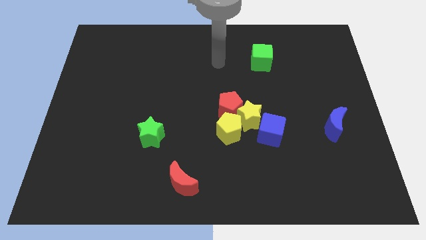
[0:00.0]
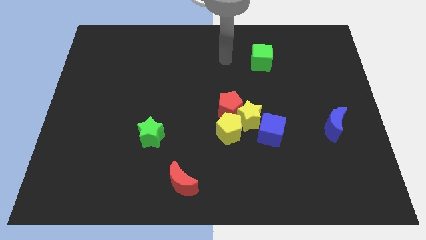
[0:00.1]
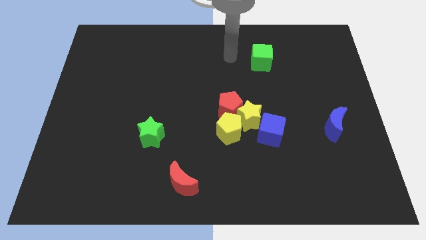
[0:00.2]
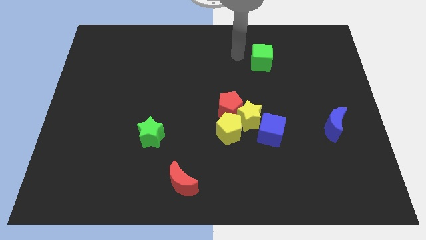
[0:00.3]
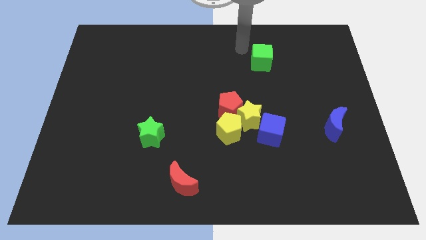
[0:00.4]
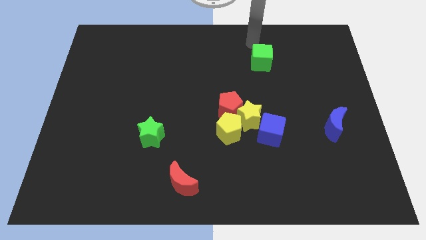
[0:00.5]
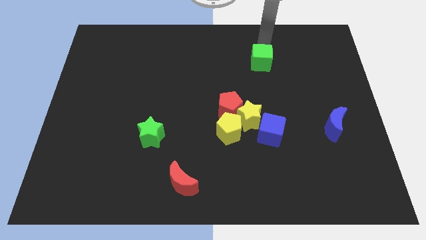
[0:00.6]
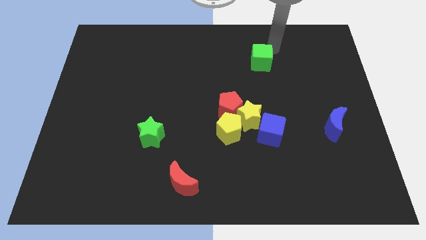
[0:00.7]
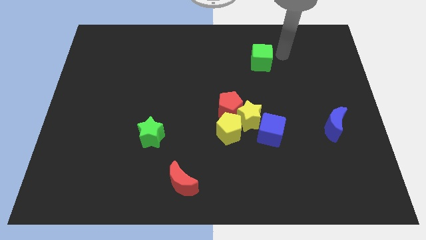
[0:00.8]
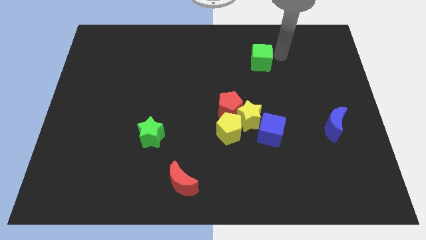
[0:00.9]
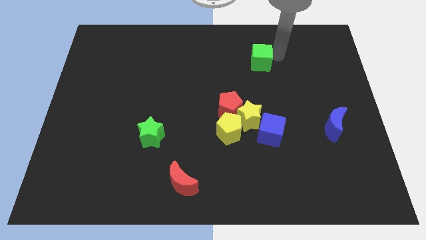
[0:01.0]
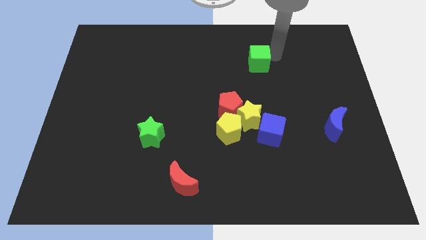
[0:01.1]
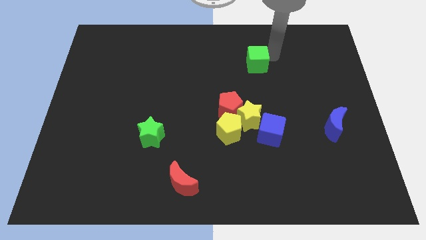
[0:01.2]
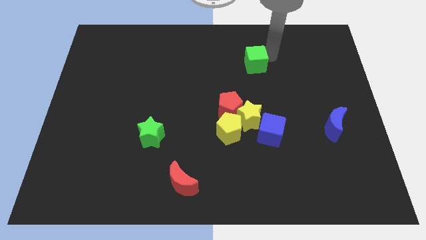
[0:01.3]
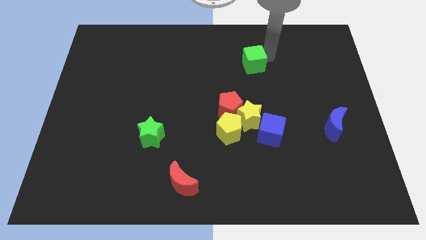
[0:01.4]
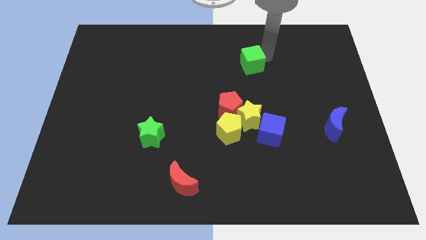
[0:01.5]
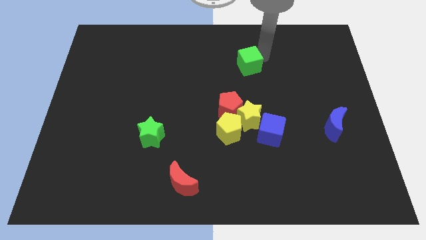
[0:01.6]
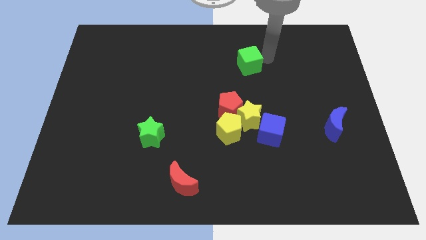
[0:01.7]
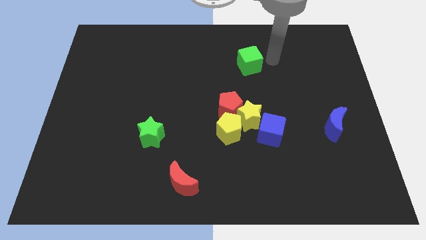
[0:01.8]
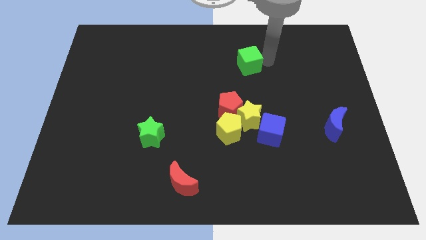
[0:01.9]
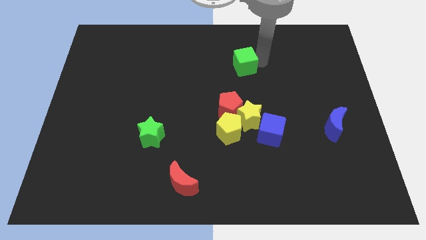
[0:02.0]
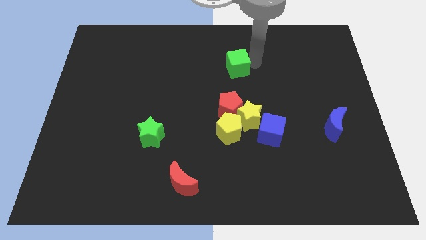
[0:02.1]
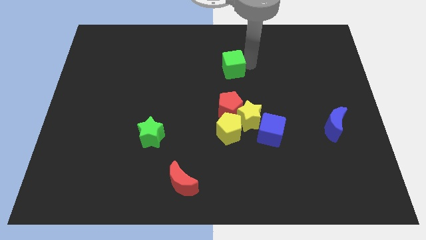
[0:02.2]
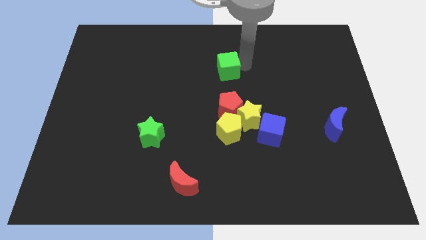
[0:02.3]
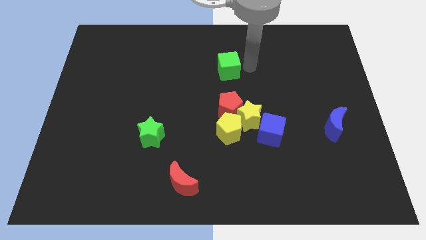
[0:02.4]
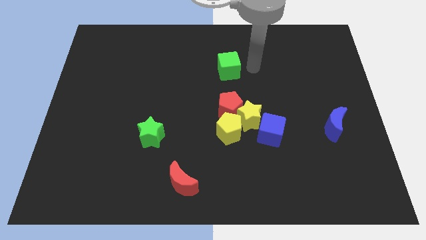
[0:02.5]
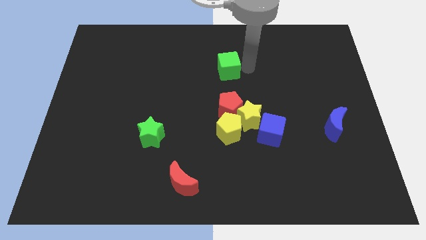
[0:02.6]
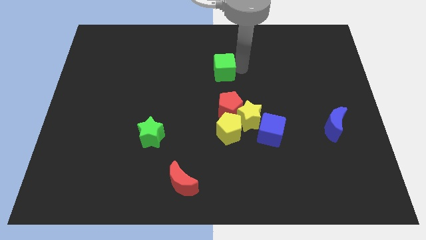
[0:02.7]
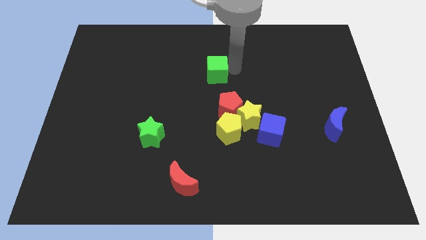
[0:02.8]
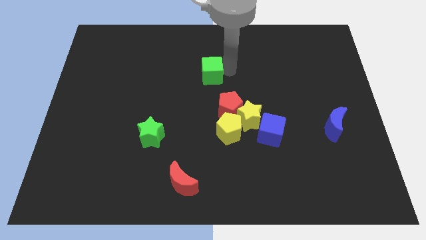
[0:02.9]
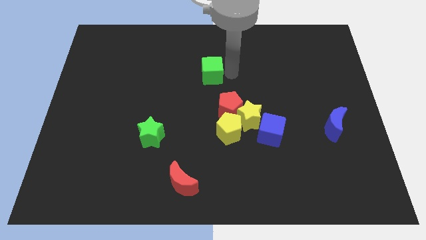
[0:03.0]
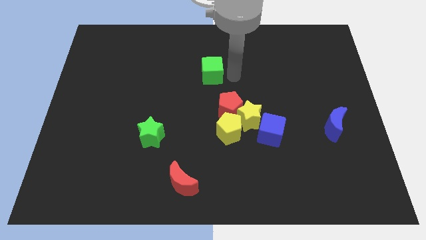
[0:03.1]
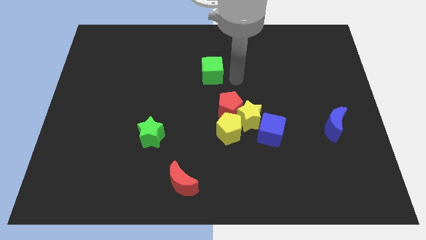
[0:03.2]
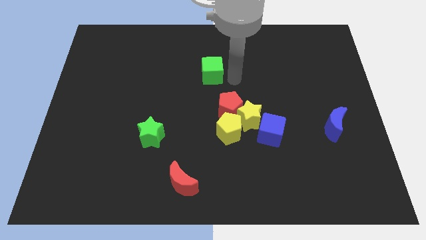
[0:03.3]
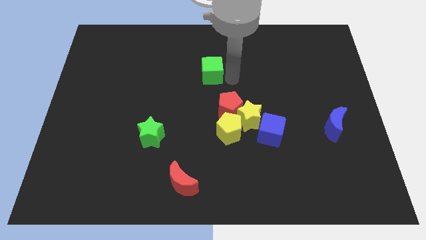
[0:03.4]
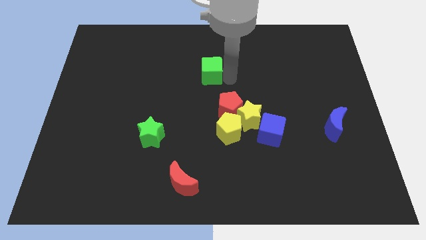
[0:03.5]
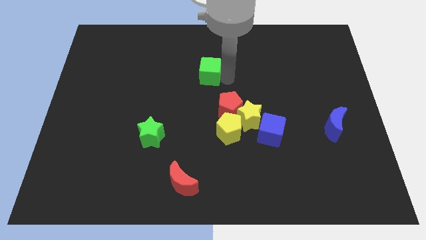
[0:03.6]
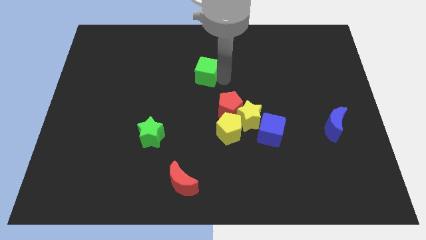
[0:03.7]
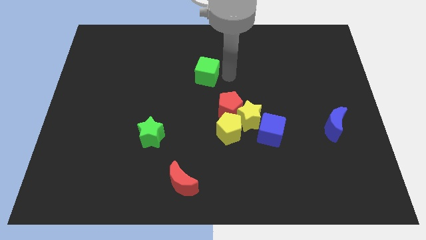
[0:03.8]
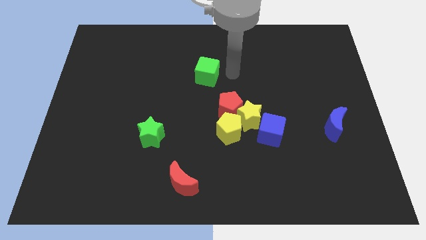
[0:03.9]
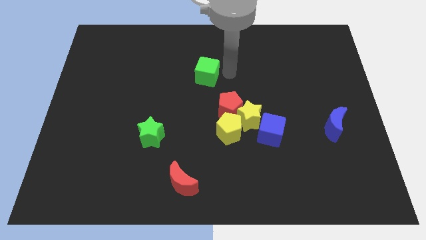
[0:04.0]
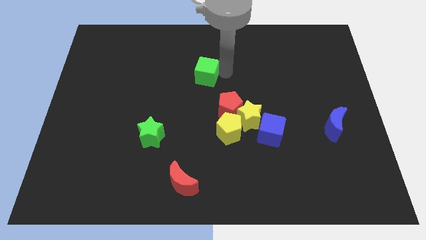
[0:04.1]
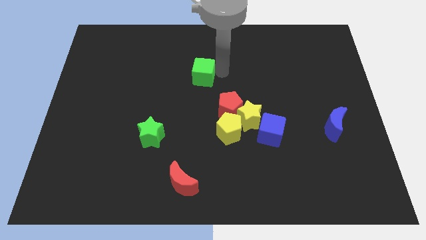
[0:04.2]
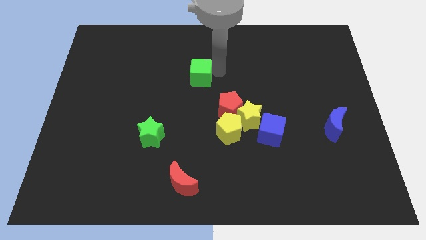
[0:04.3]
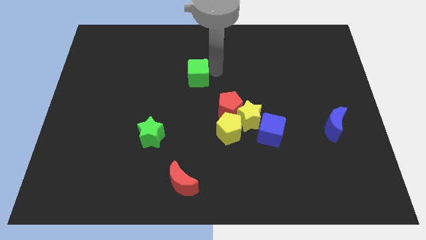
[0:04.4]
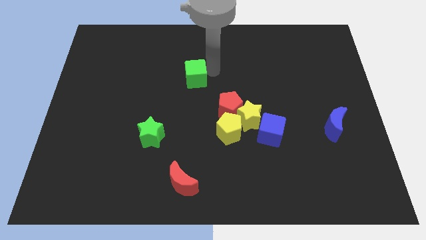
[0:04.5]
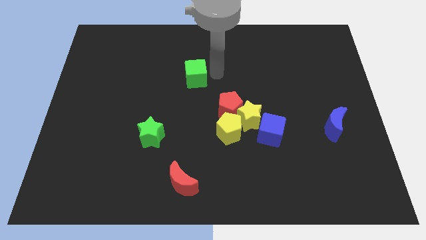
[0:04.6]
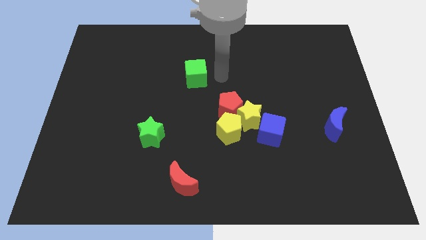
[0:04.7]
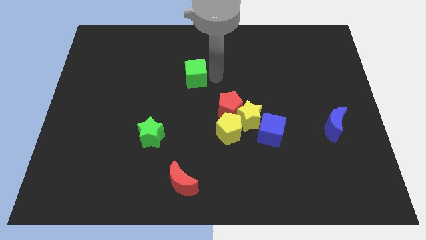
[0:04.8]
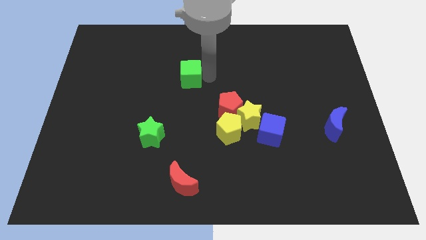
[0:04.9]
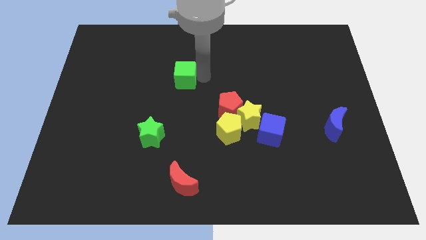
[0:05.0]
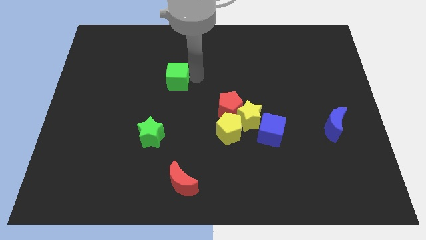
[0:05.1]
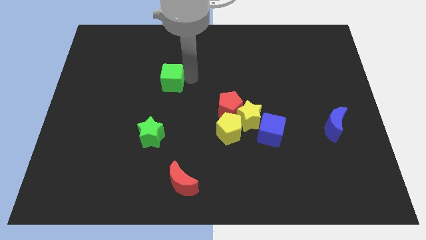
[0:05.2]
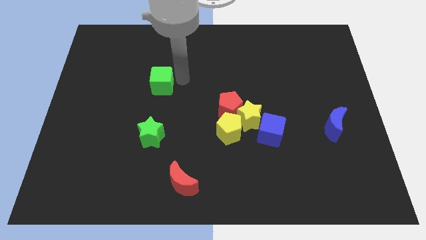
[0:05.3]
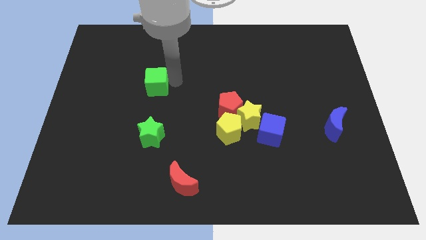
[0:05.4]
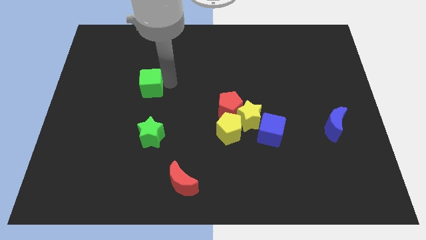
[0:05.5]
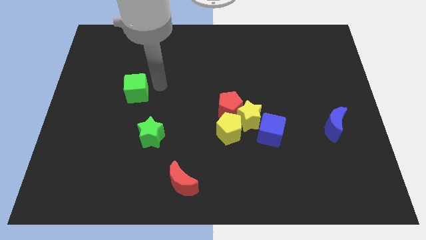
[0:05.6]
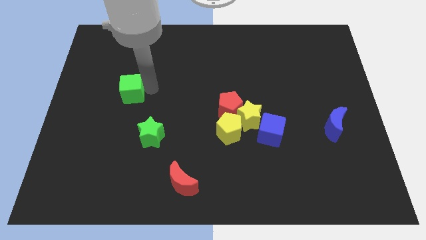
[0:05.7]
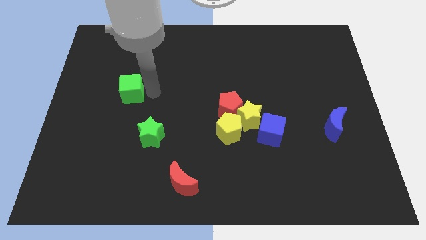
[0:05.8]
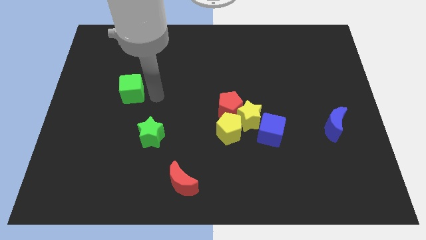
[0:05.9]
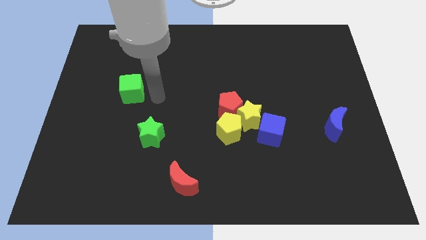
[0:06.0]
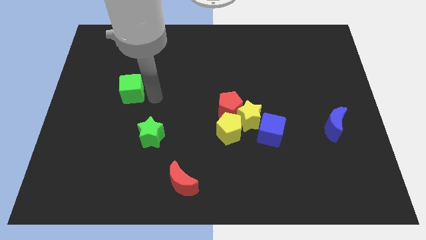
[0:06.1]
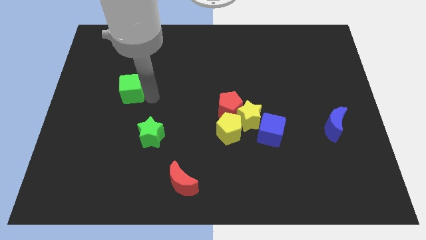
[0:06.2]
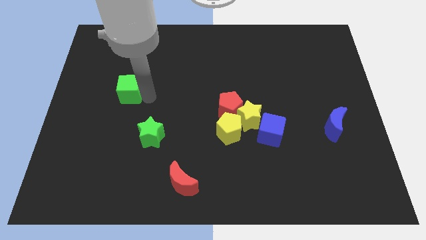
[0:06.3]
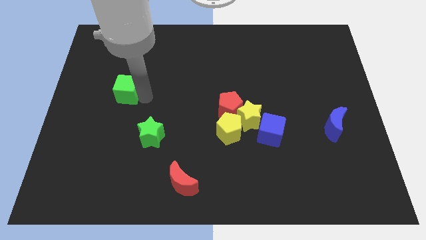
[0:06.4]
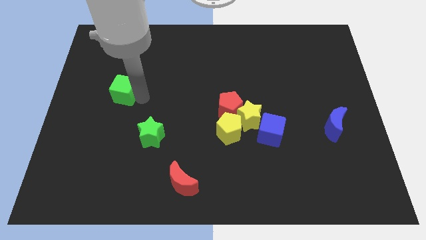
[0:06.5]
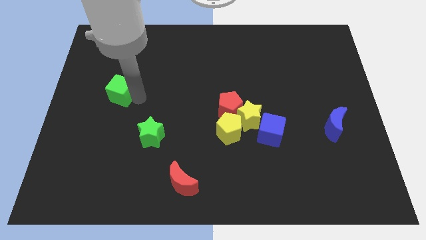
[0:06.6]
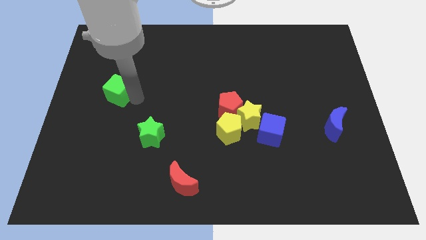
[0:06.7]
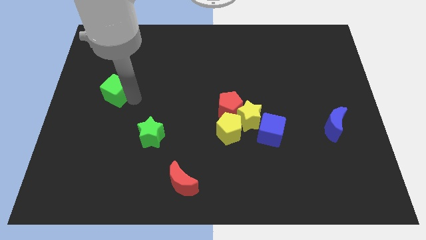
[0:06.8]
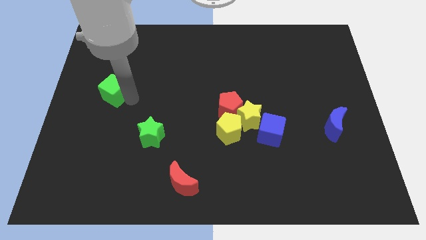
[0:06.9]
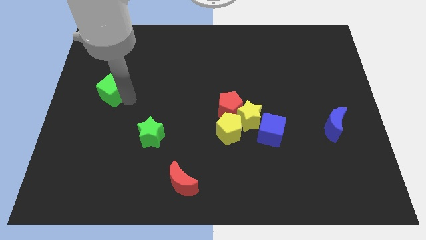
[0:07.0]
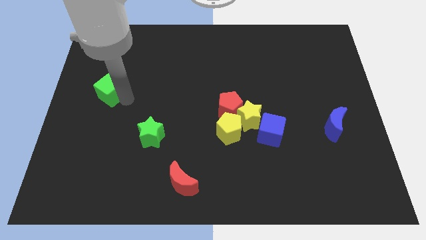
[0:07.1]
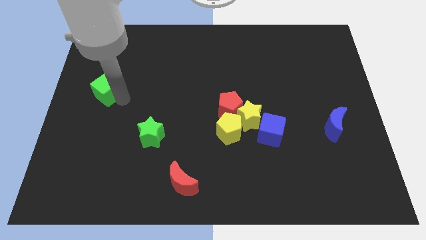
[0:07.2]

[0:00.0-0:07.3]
push the green cube to the center left
